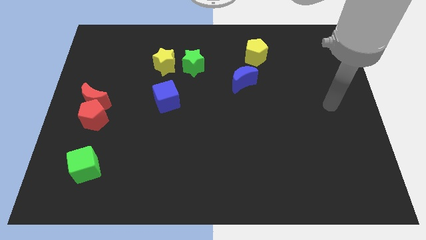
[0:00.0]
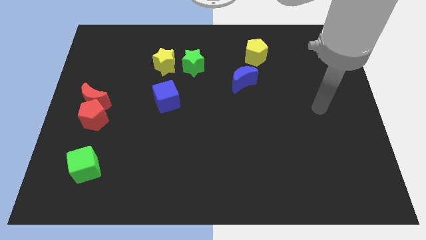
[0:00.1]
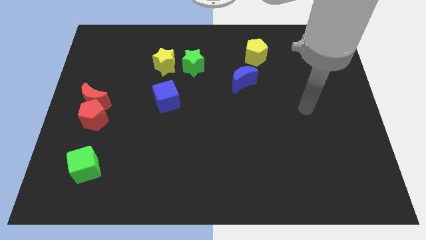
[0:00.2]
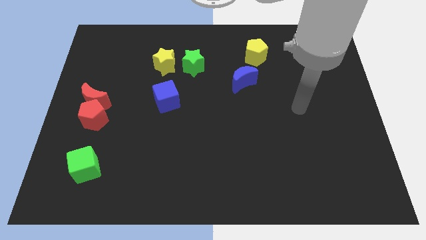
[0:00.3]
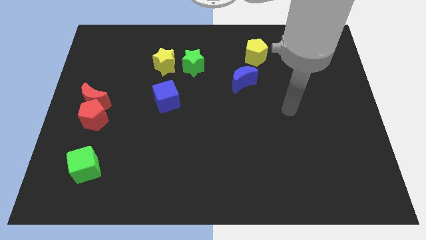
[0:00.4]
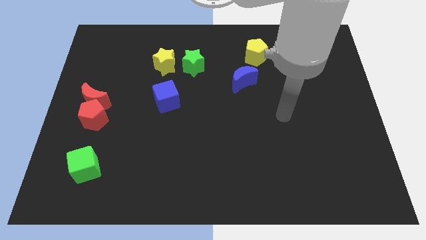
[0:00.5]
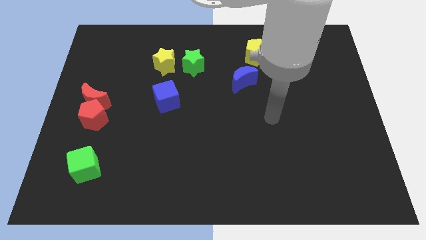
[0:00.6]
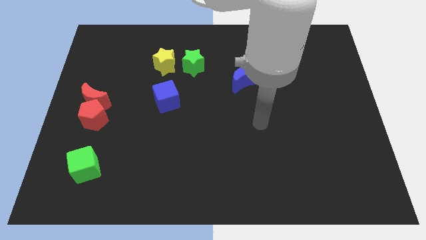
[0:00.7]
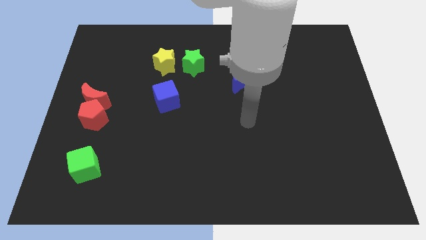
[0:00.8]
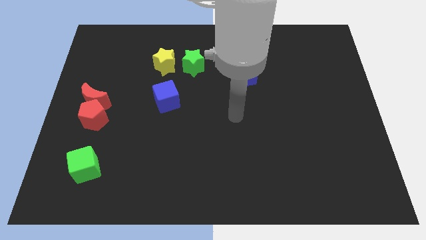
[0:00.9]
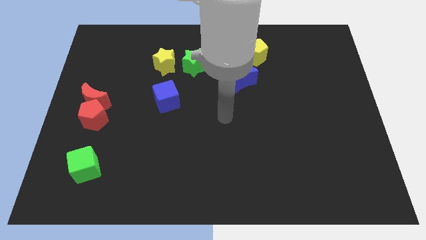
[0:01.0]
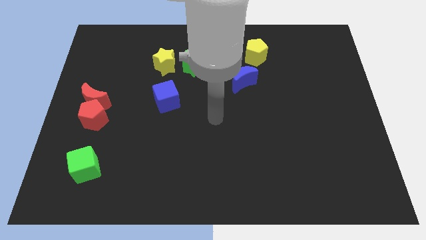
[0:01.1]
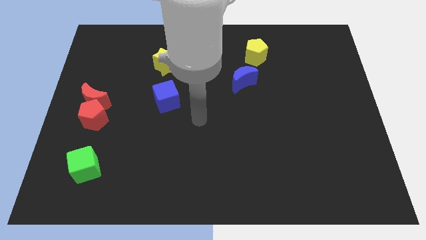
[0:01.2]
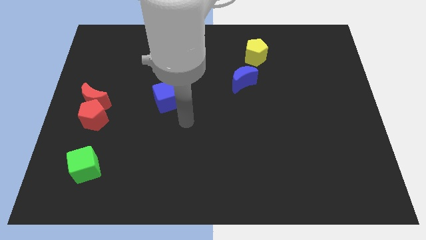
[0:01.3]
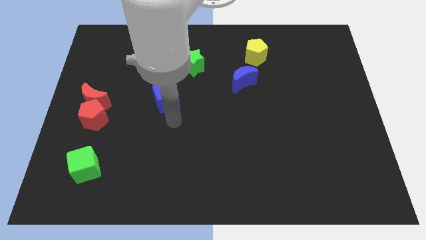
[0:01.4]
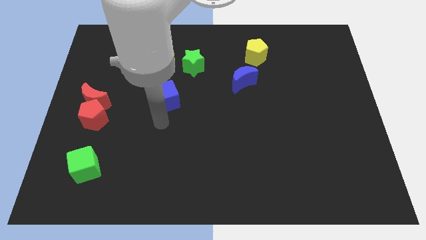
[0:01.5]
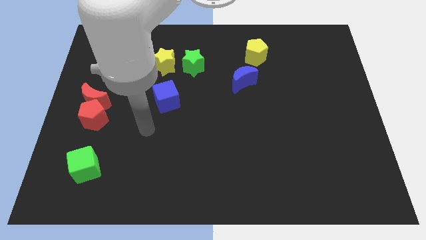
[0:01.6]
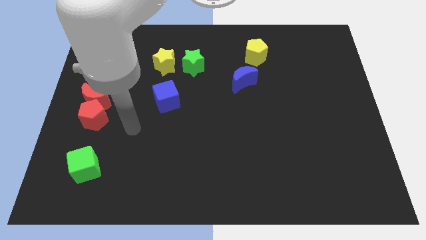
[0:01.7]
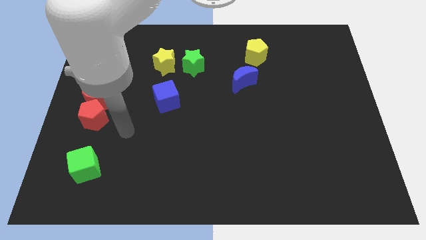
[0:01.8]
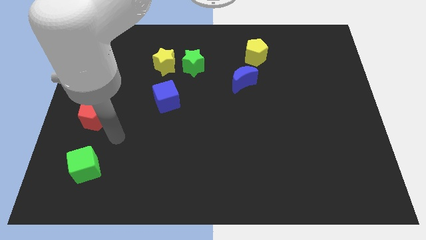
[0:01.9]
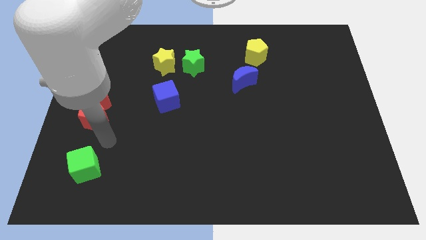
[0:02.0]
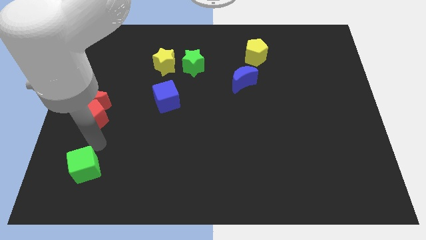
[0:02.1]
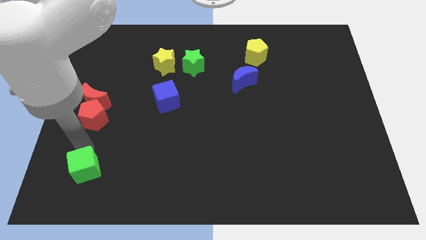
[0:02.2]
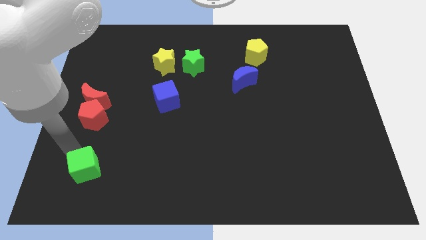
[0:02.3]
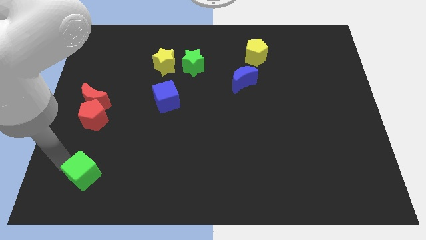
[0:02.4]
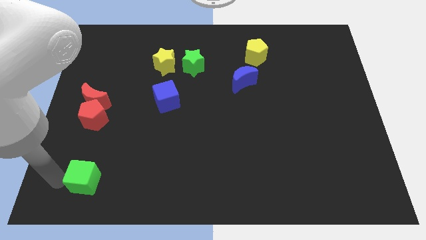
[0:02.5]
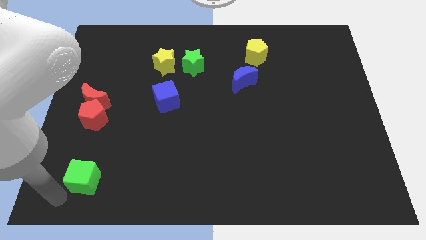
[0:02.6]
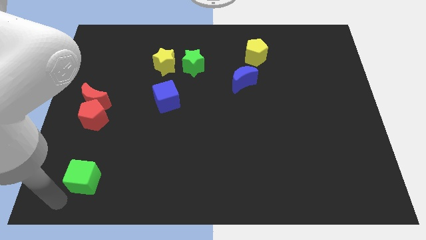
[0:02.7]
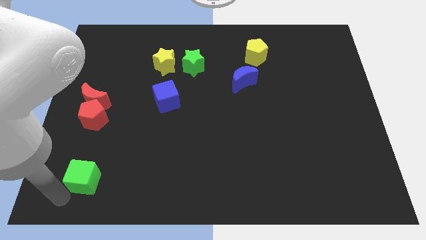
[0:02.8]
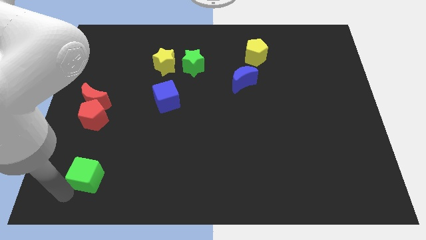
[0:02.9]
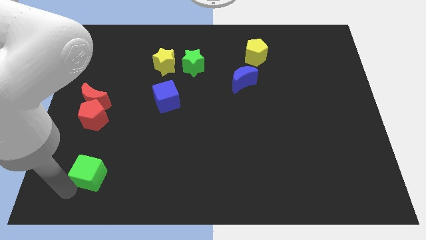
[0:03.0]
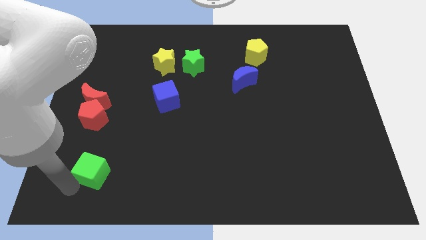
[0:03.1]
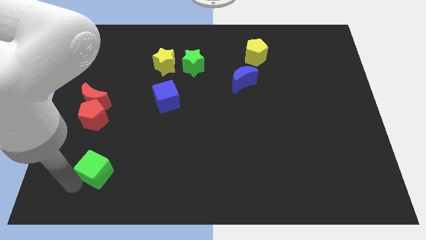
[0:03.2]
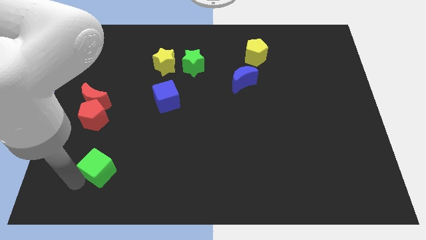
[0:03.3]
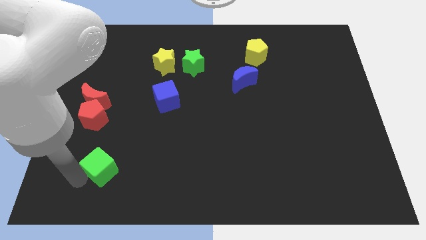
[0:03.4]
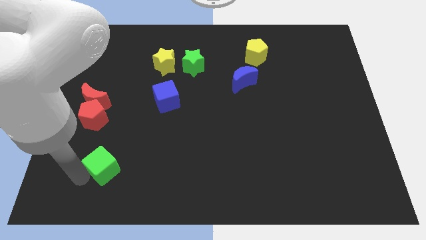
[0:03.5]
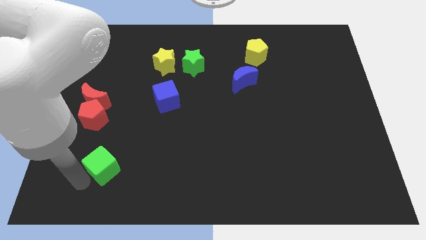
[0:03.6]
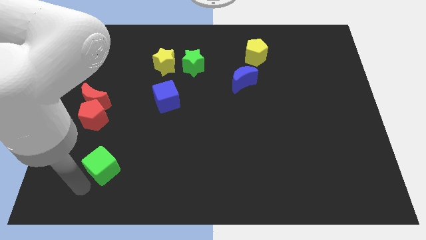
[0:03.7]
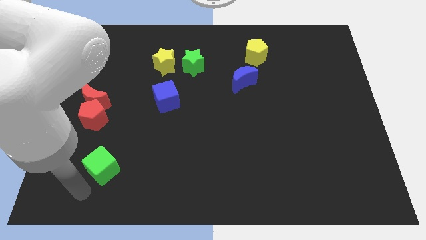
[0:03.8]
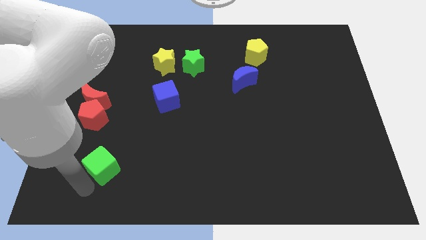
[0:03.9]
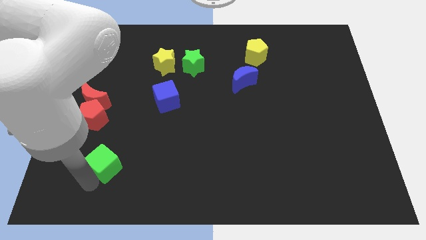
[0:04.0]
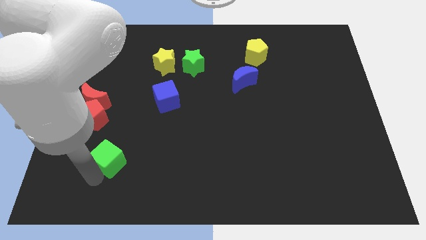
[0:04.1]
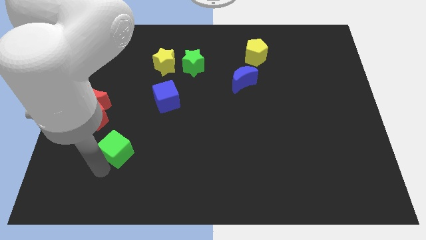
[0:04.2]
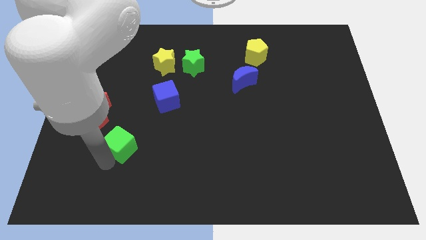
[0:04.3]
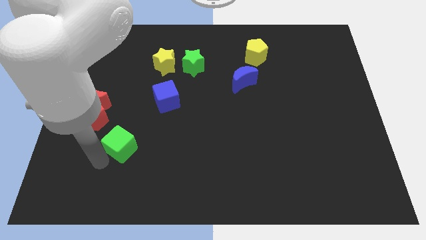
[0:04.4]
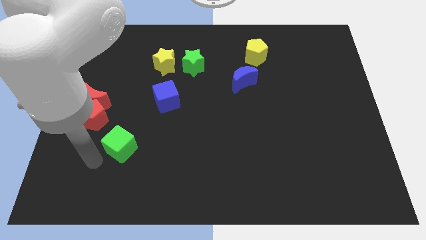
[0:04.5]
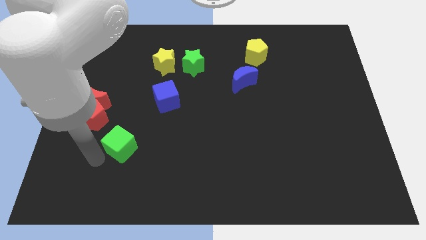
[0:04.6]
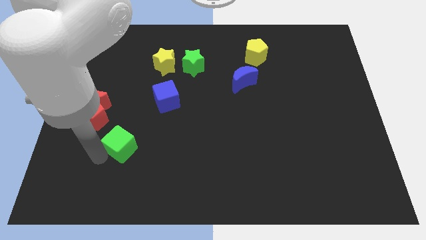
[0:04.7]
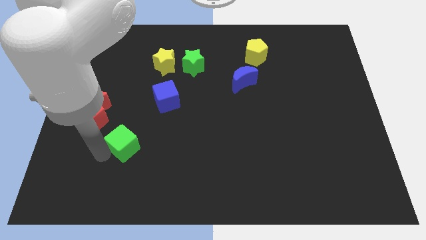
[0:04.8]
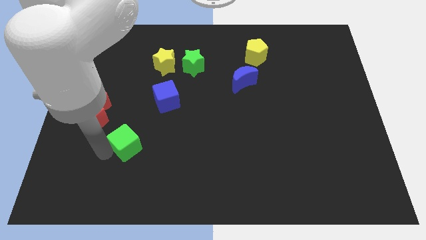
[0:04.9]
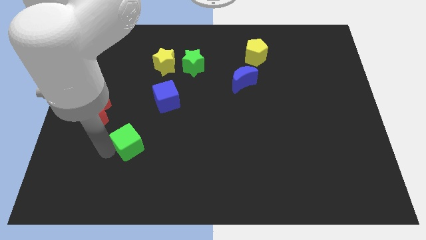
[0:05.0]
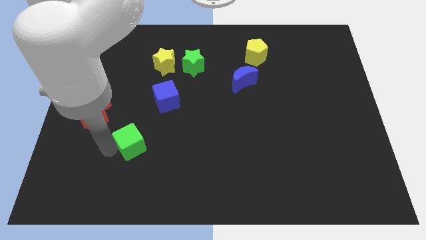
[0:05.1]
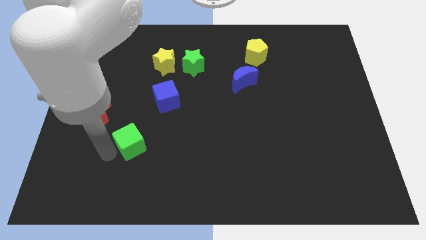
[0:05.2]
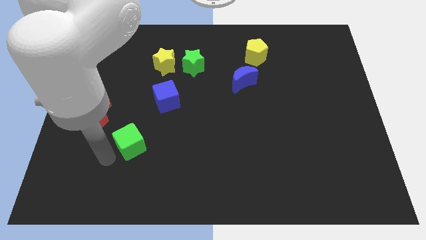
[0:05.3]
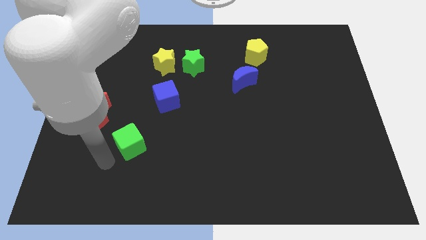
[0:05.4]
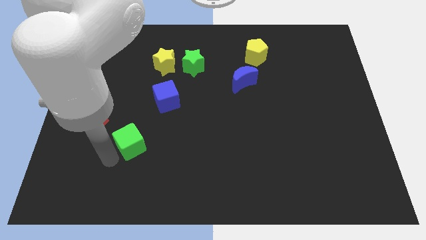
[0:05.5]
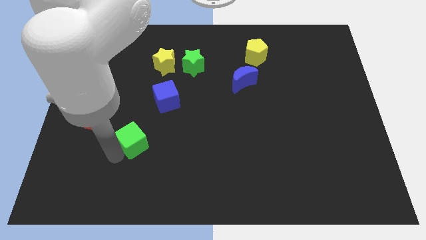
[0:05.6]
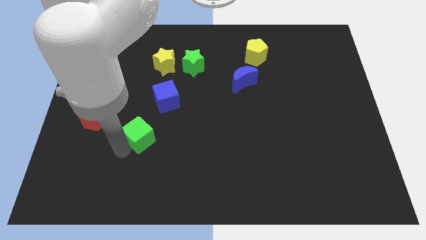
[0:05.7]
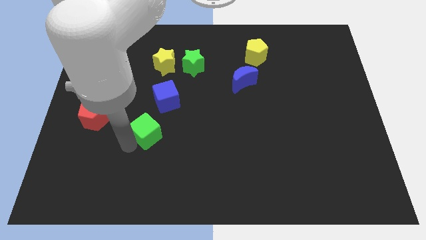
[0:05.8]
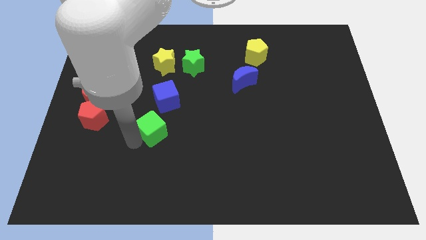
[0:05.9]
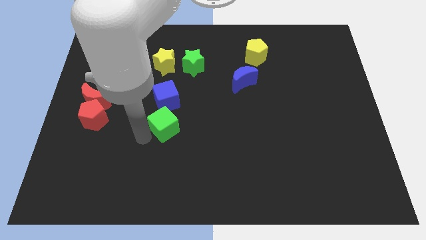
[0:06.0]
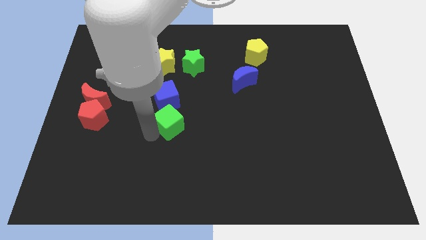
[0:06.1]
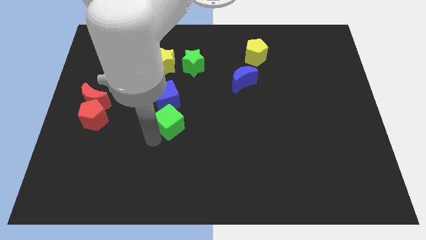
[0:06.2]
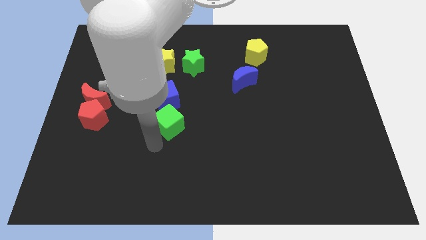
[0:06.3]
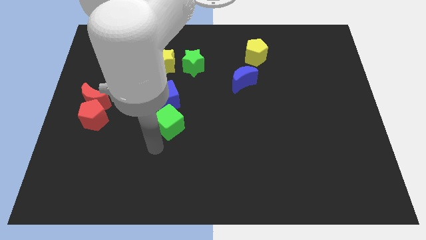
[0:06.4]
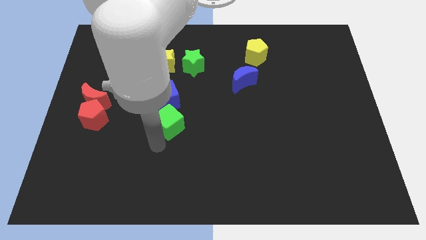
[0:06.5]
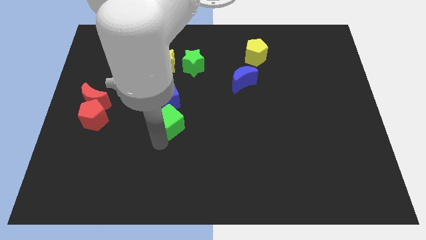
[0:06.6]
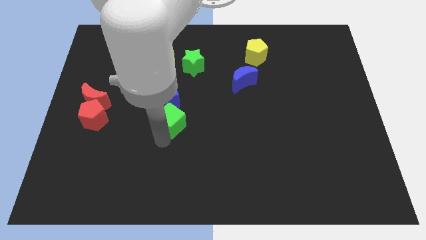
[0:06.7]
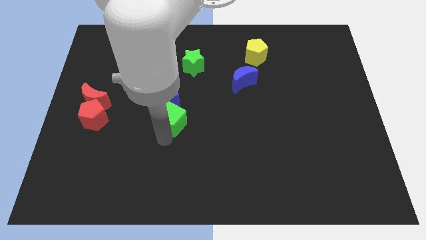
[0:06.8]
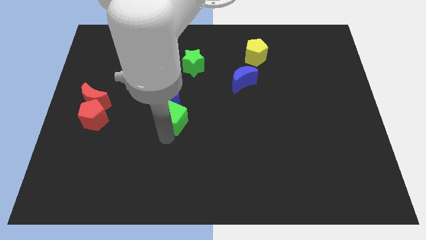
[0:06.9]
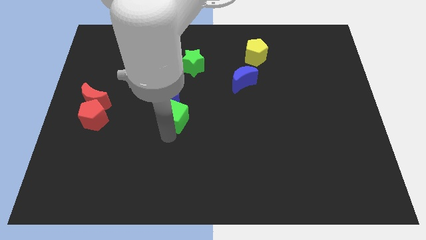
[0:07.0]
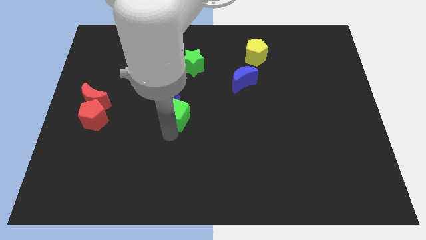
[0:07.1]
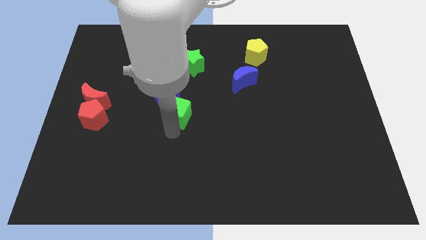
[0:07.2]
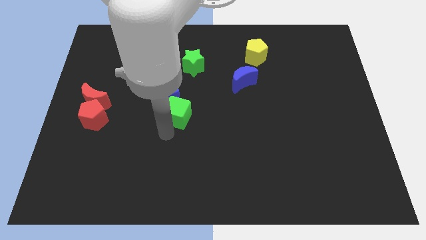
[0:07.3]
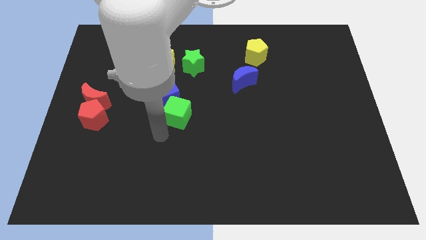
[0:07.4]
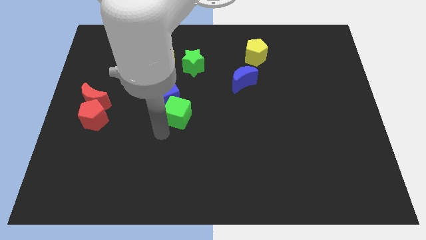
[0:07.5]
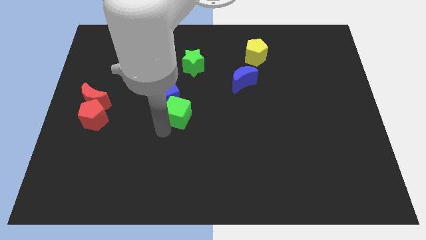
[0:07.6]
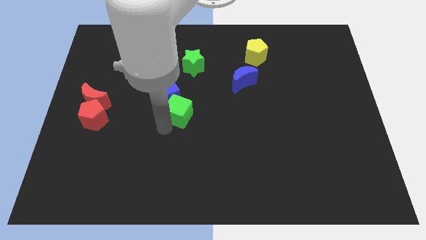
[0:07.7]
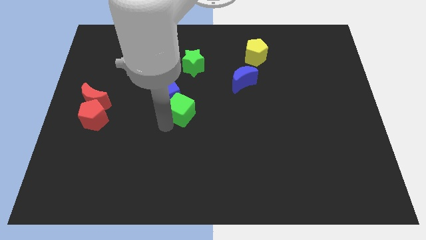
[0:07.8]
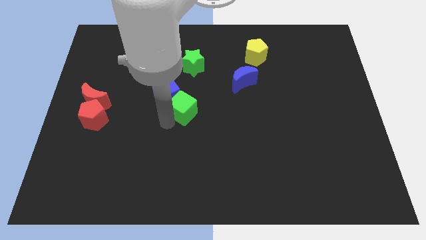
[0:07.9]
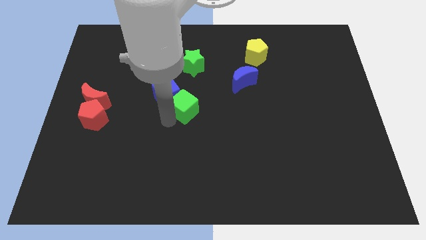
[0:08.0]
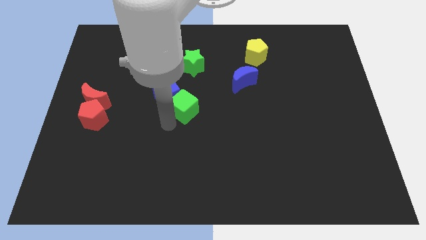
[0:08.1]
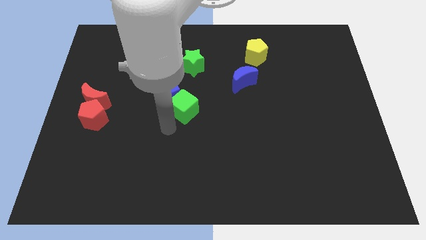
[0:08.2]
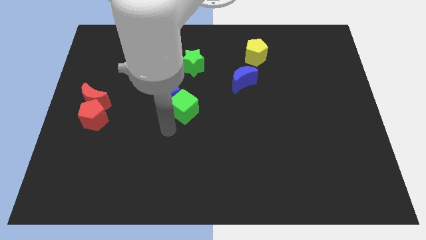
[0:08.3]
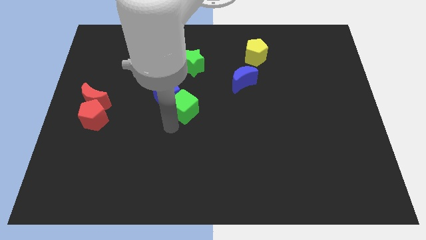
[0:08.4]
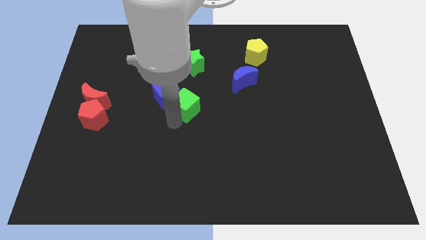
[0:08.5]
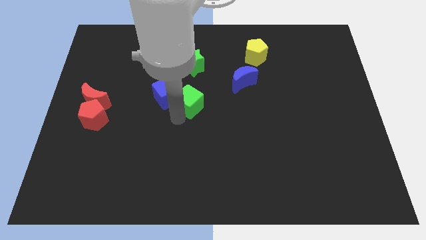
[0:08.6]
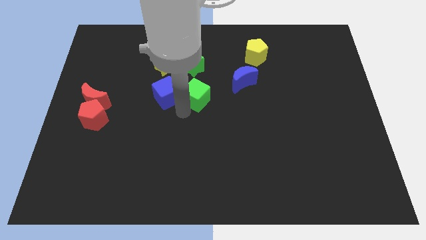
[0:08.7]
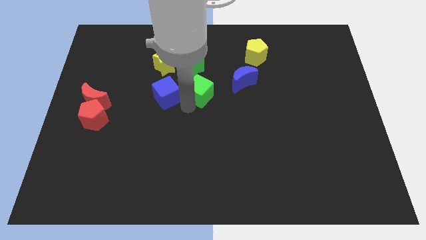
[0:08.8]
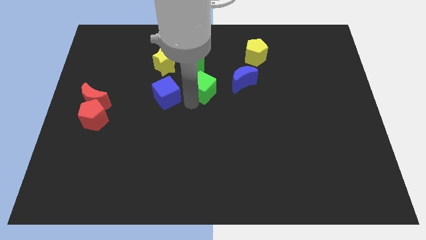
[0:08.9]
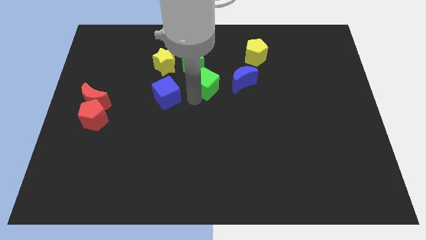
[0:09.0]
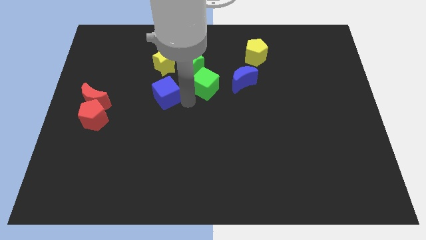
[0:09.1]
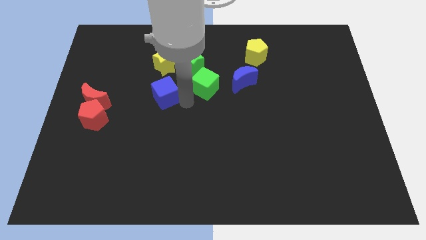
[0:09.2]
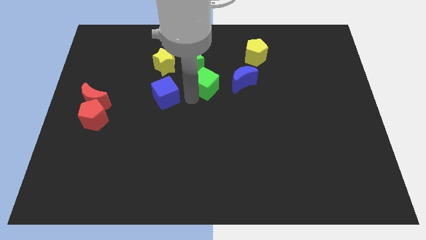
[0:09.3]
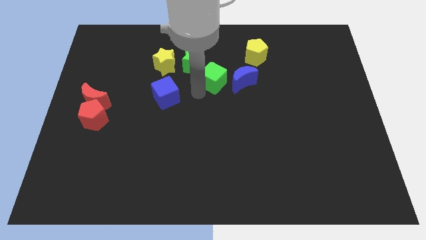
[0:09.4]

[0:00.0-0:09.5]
put the green cube to the right of the green star
